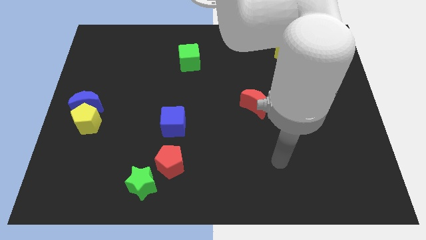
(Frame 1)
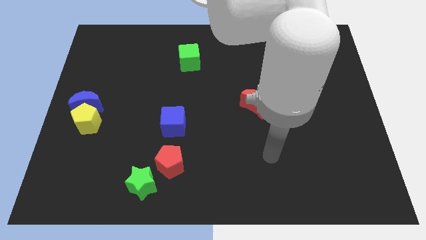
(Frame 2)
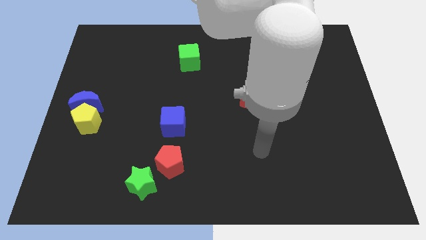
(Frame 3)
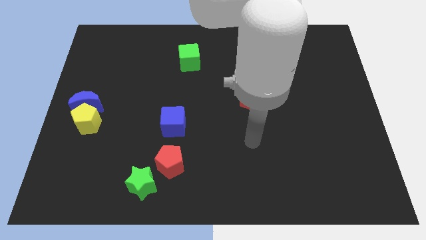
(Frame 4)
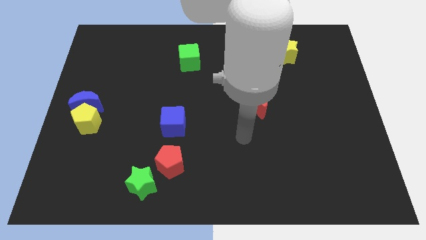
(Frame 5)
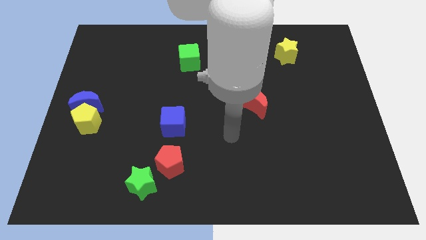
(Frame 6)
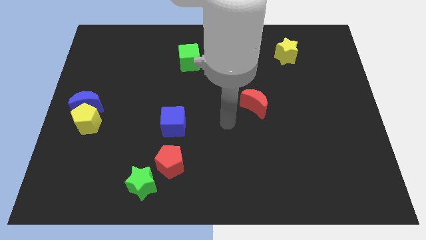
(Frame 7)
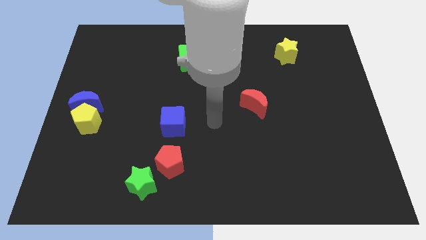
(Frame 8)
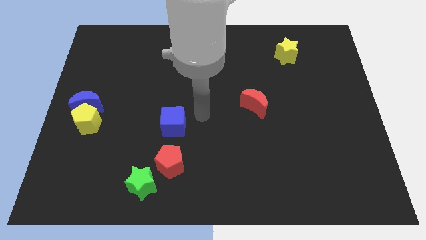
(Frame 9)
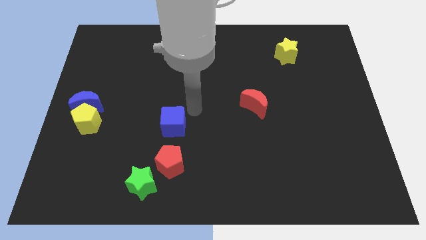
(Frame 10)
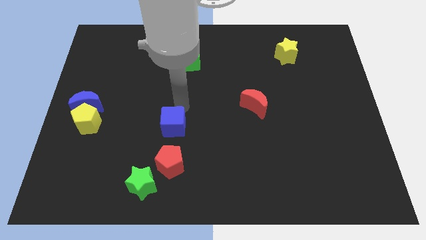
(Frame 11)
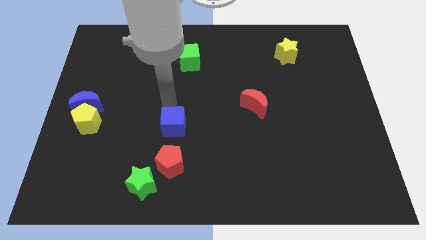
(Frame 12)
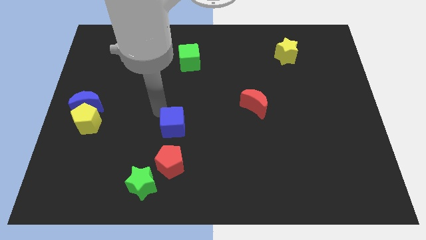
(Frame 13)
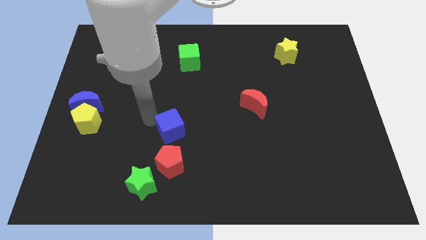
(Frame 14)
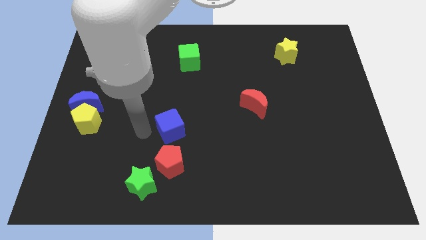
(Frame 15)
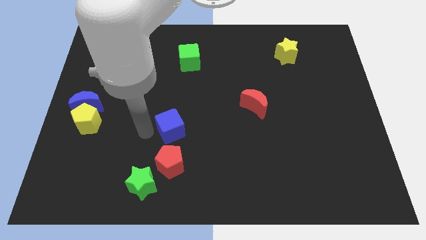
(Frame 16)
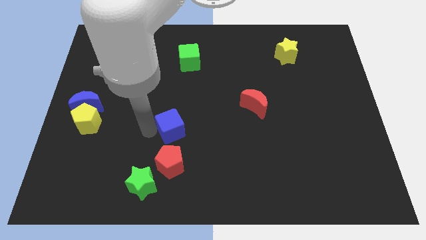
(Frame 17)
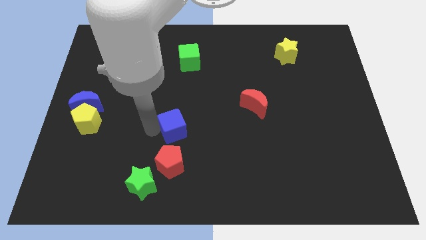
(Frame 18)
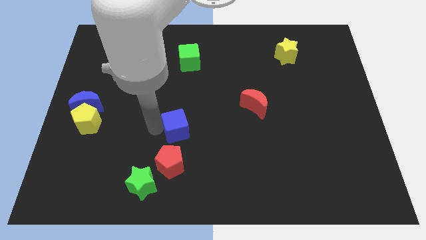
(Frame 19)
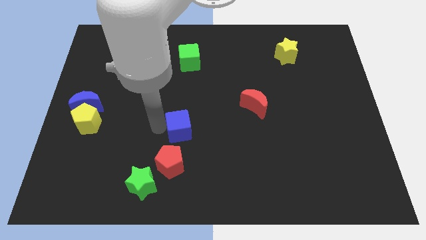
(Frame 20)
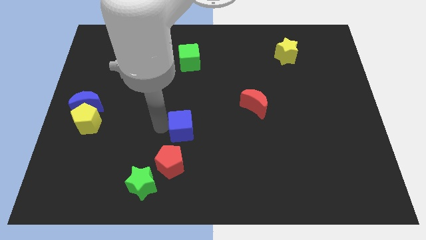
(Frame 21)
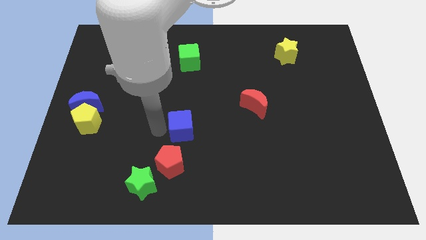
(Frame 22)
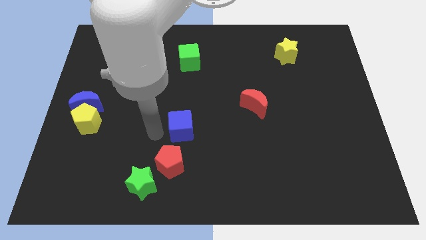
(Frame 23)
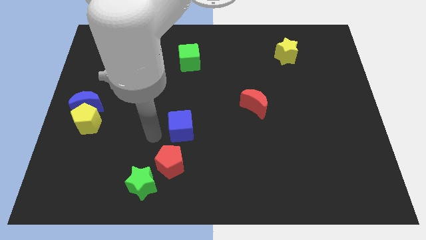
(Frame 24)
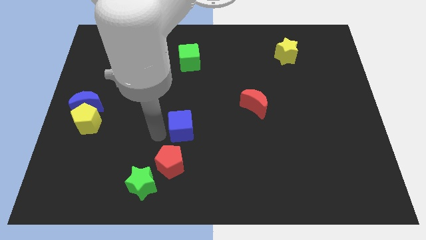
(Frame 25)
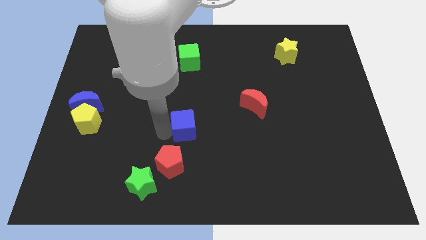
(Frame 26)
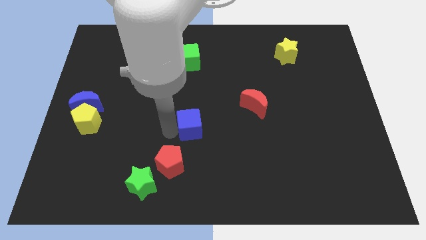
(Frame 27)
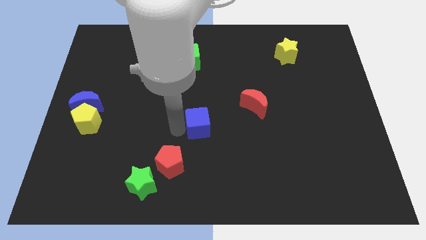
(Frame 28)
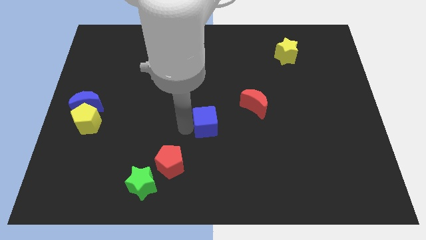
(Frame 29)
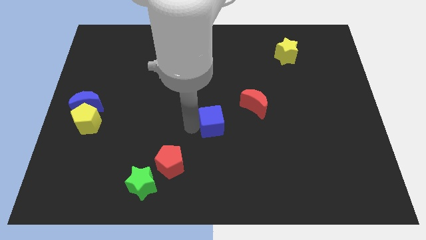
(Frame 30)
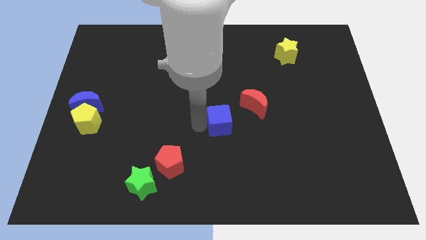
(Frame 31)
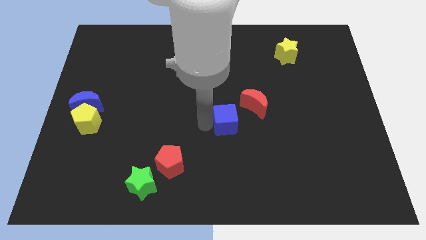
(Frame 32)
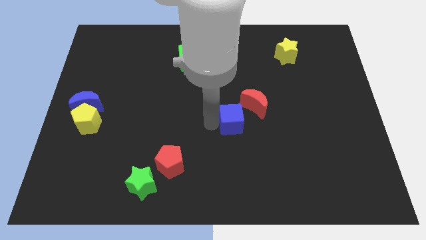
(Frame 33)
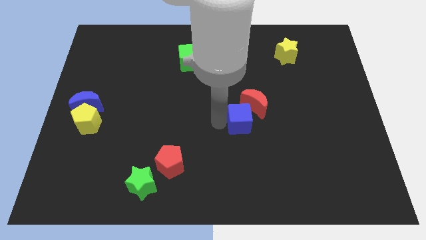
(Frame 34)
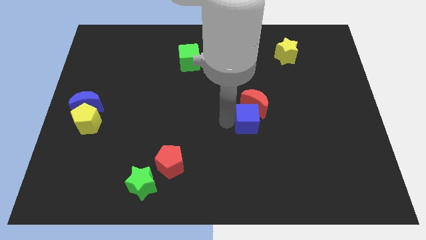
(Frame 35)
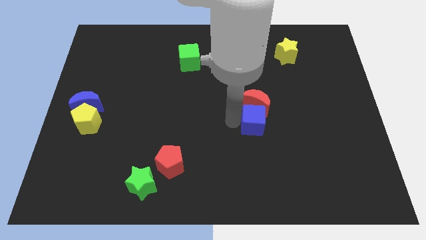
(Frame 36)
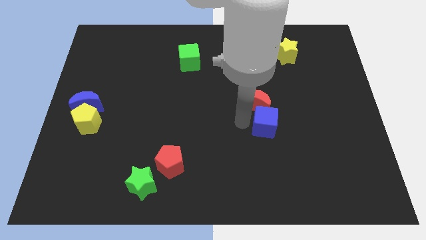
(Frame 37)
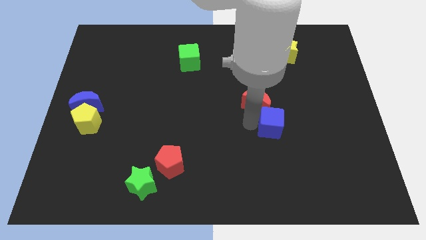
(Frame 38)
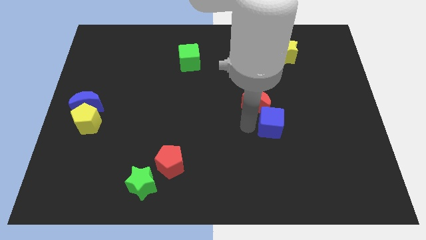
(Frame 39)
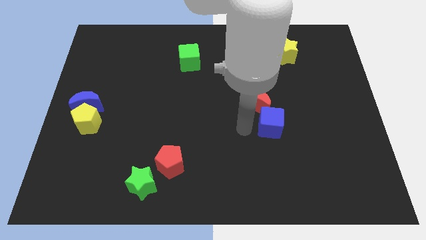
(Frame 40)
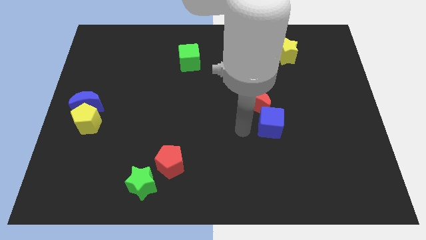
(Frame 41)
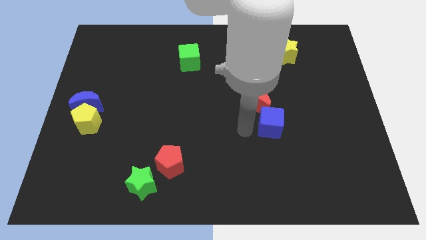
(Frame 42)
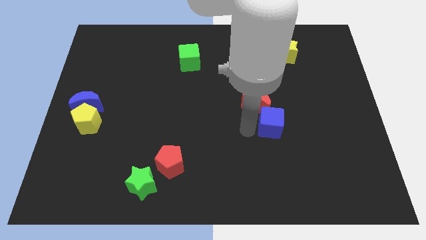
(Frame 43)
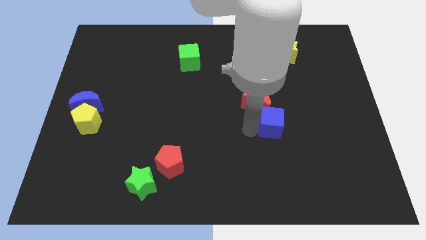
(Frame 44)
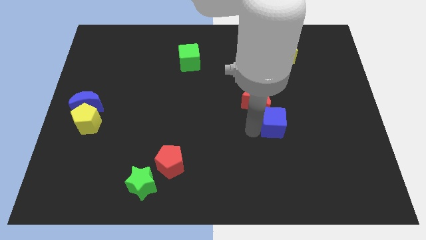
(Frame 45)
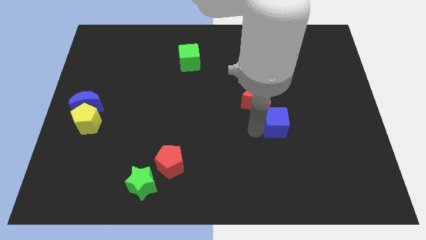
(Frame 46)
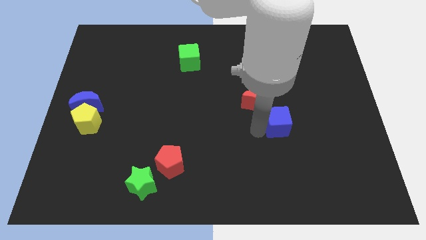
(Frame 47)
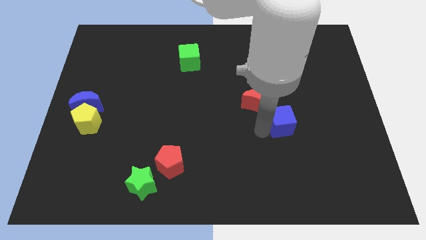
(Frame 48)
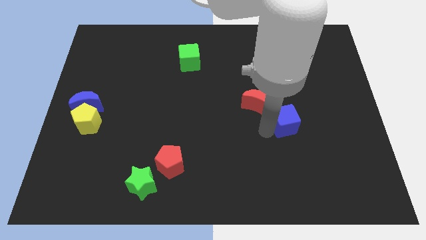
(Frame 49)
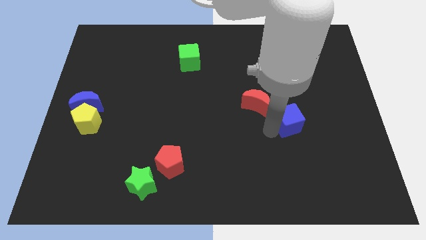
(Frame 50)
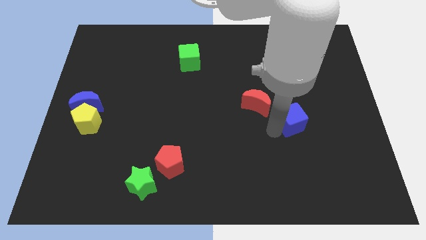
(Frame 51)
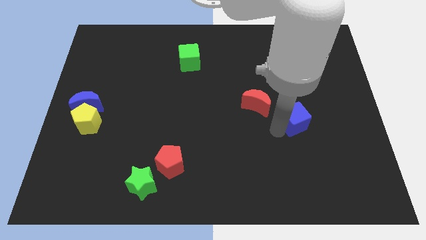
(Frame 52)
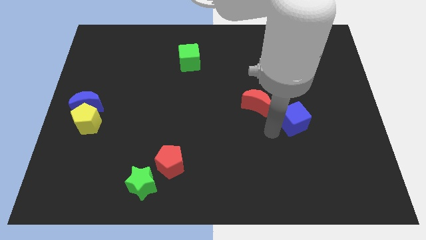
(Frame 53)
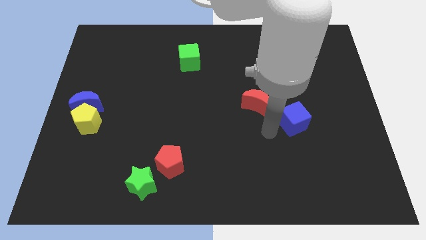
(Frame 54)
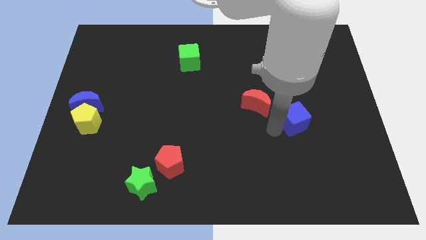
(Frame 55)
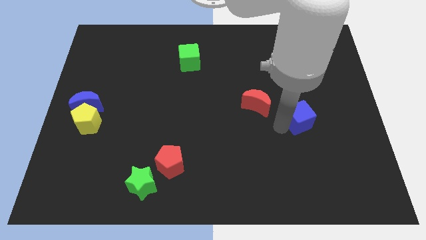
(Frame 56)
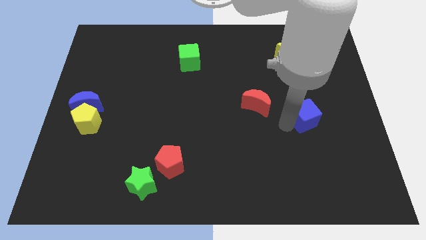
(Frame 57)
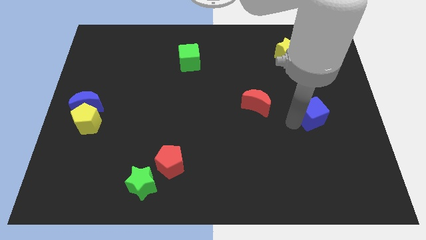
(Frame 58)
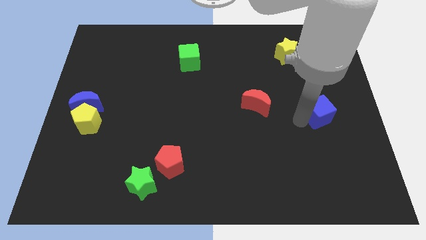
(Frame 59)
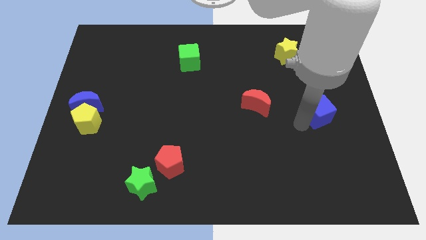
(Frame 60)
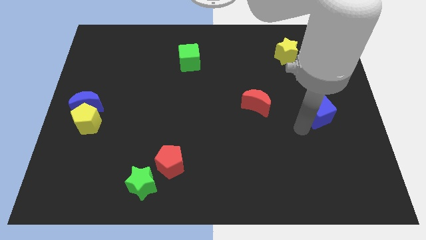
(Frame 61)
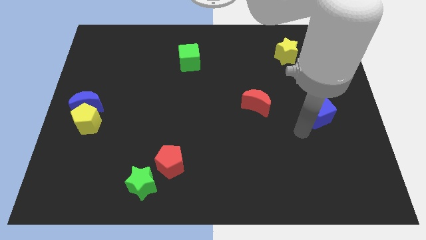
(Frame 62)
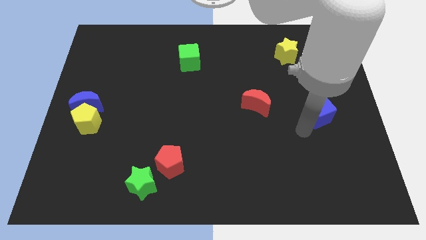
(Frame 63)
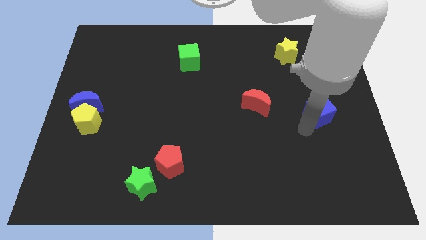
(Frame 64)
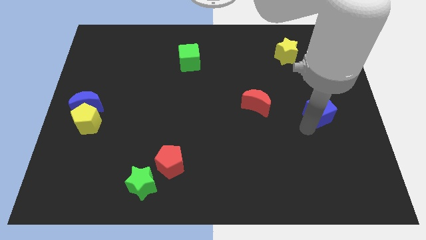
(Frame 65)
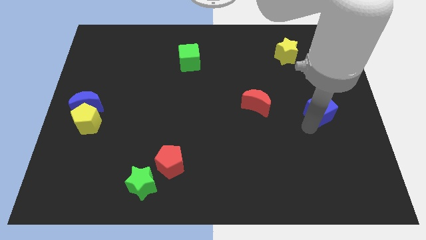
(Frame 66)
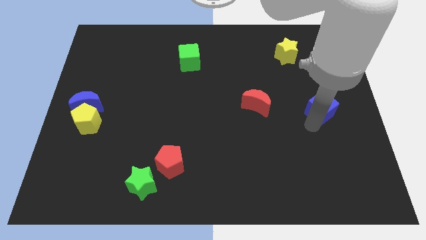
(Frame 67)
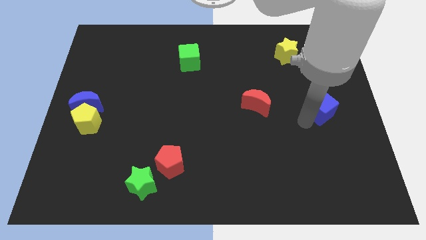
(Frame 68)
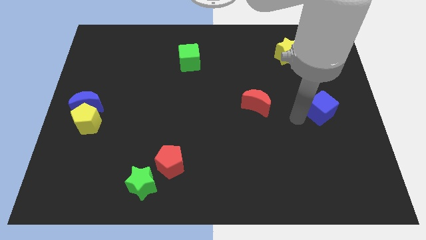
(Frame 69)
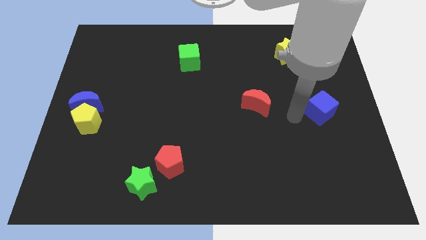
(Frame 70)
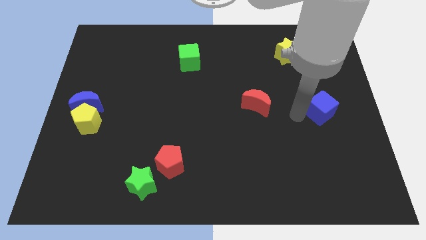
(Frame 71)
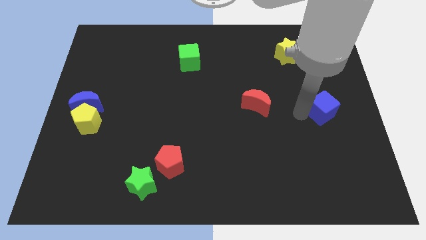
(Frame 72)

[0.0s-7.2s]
move the blue cube to the right side of the board

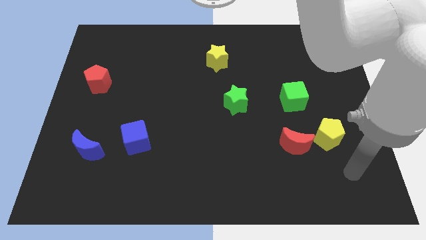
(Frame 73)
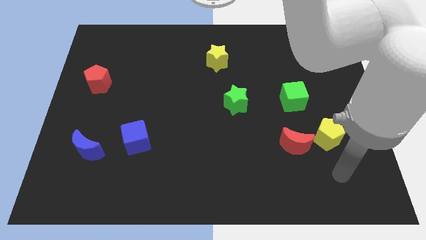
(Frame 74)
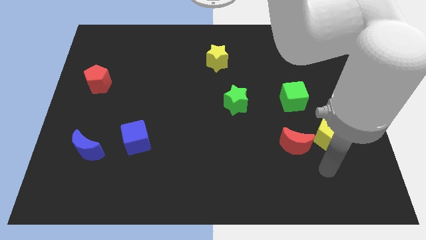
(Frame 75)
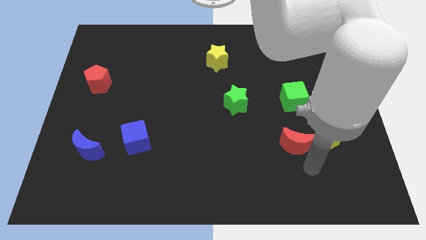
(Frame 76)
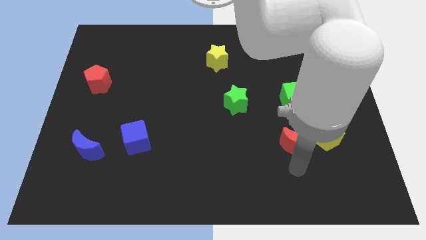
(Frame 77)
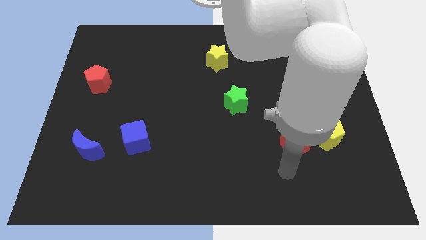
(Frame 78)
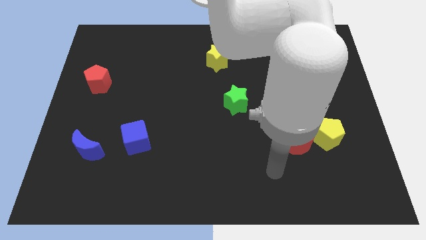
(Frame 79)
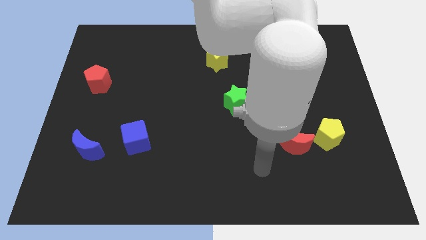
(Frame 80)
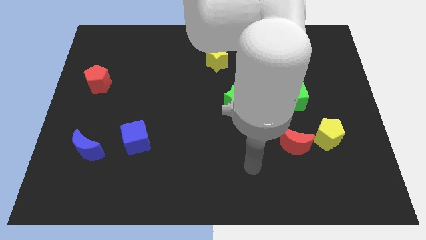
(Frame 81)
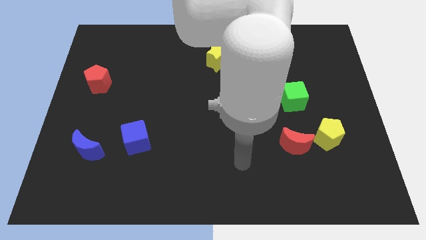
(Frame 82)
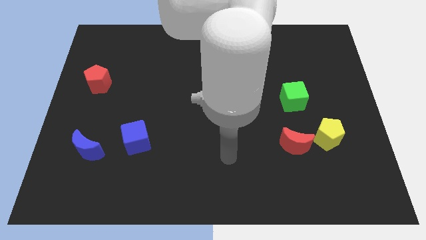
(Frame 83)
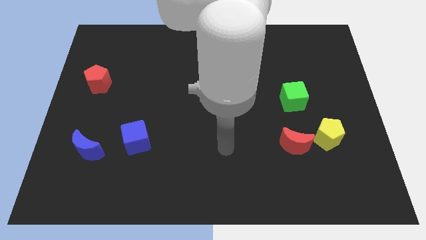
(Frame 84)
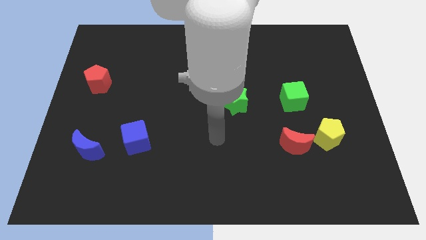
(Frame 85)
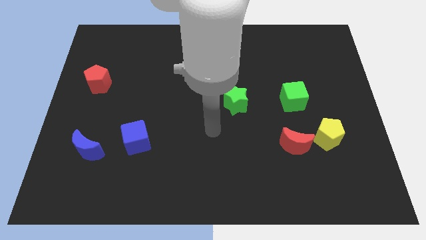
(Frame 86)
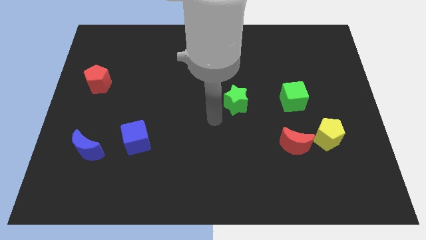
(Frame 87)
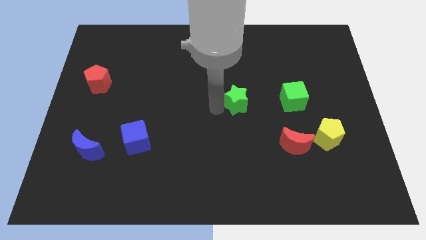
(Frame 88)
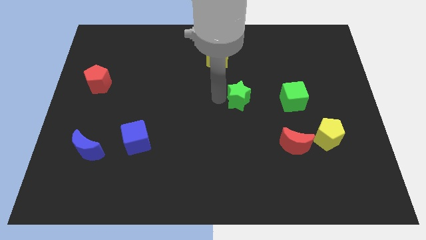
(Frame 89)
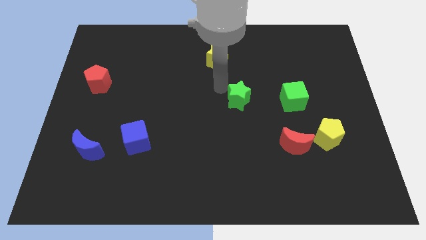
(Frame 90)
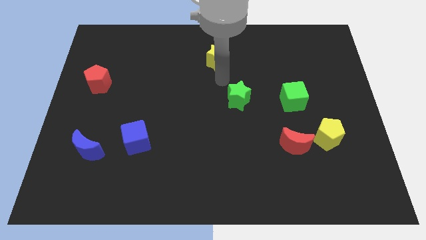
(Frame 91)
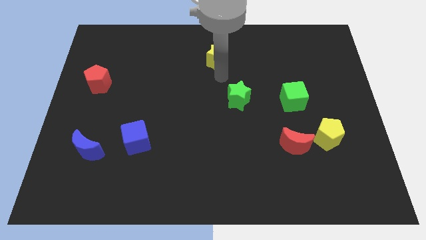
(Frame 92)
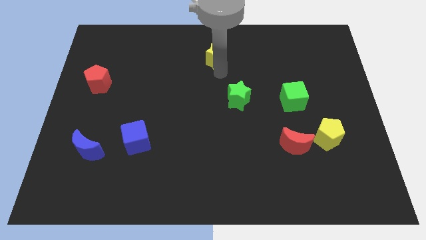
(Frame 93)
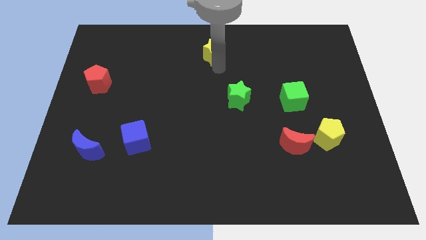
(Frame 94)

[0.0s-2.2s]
push the yellow star to the top side
